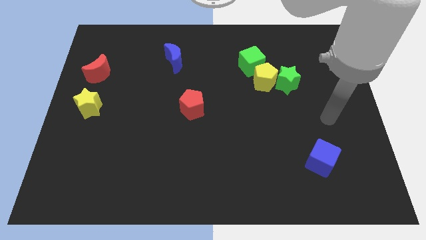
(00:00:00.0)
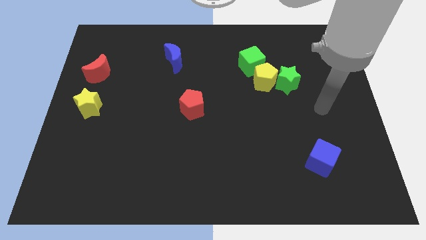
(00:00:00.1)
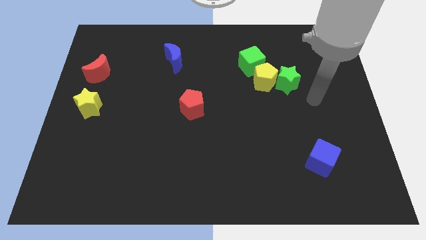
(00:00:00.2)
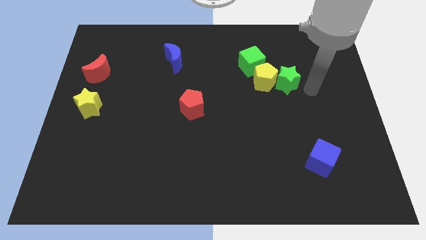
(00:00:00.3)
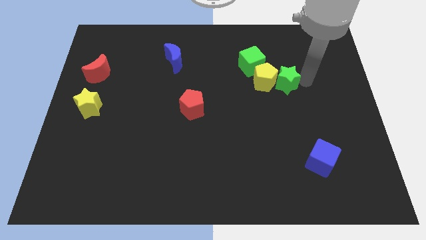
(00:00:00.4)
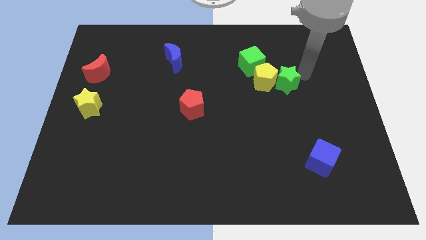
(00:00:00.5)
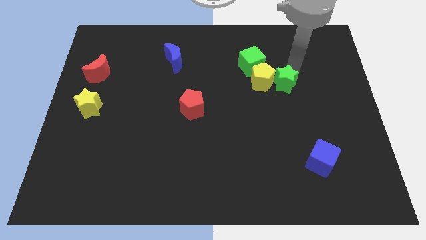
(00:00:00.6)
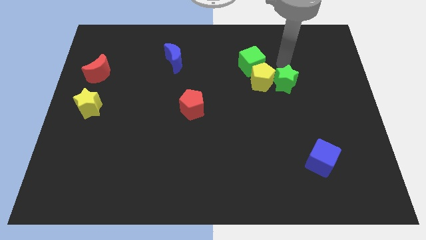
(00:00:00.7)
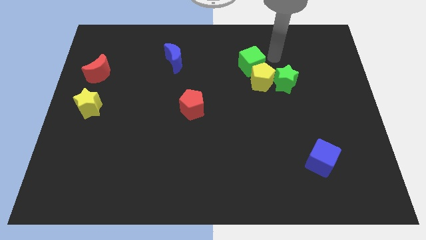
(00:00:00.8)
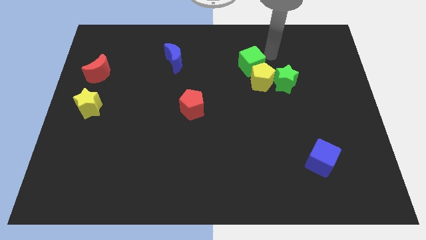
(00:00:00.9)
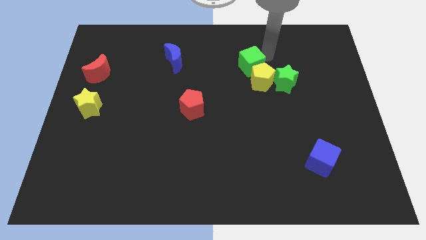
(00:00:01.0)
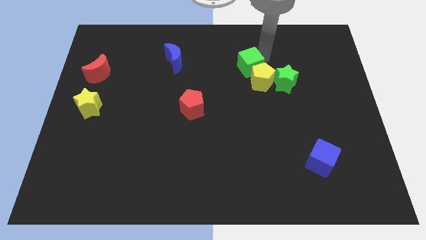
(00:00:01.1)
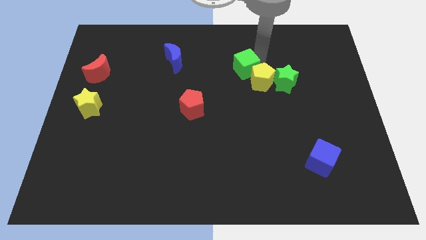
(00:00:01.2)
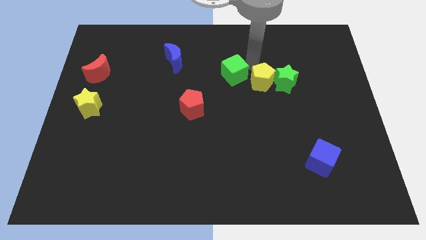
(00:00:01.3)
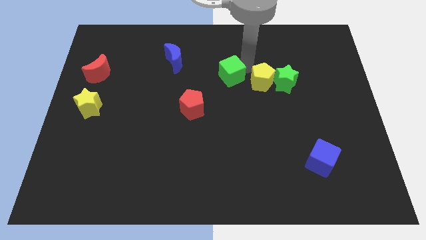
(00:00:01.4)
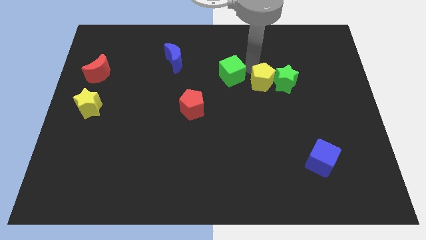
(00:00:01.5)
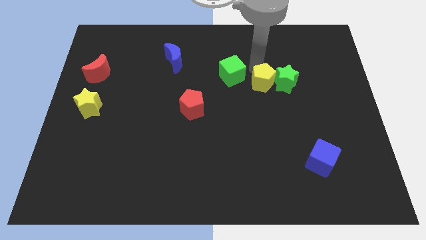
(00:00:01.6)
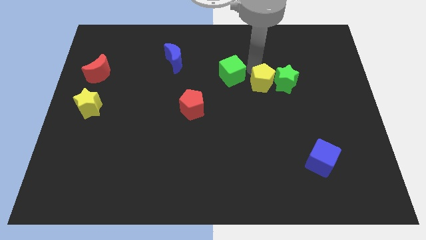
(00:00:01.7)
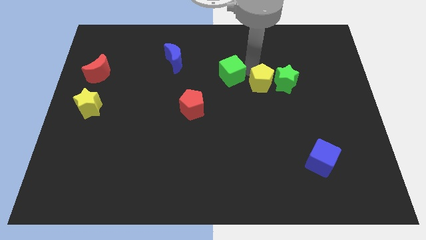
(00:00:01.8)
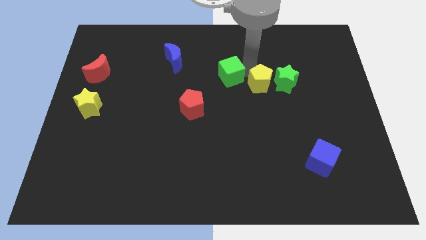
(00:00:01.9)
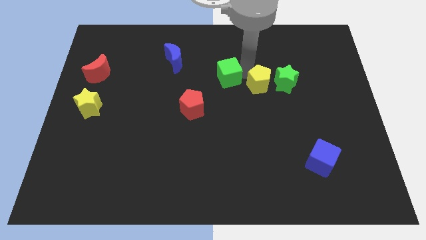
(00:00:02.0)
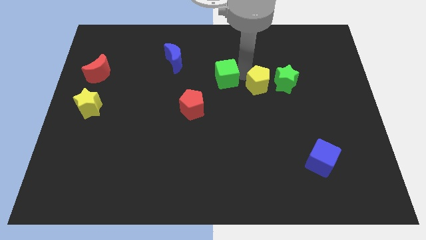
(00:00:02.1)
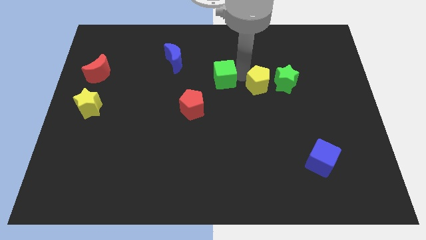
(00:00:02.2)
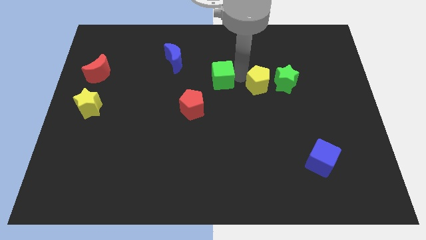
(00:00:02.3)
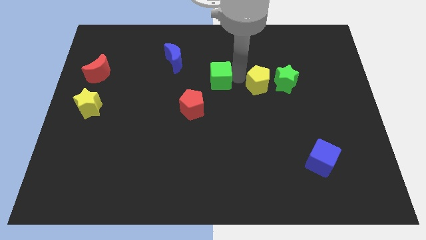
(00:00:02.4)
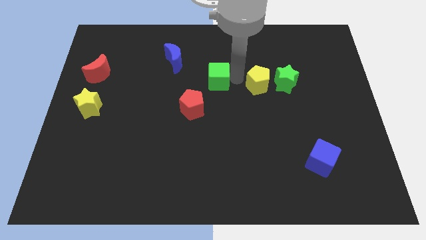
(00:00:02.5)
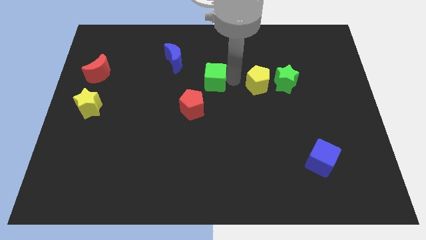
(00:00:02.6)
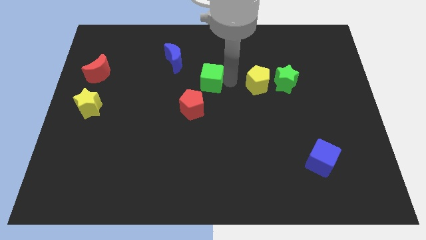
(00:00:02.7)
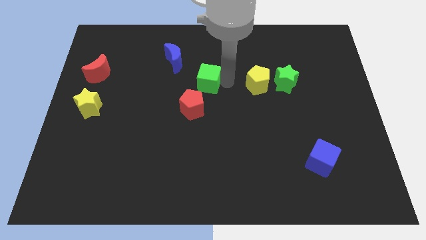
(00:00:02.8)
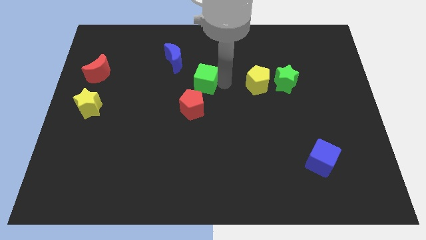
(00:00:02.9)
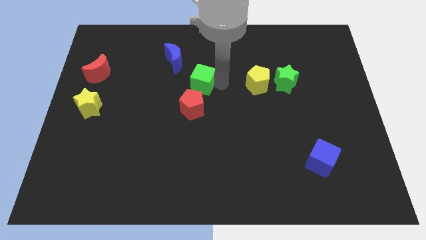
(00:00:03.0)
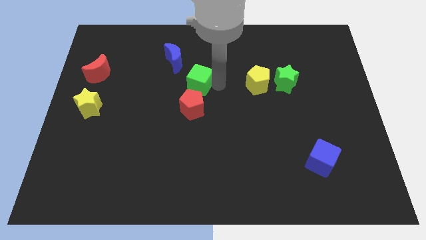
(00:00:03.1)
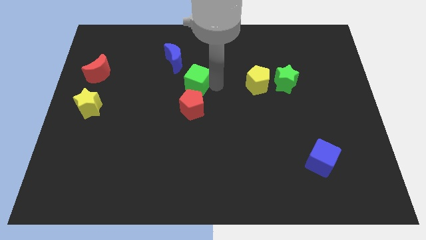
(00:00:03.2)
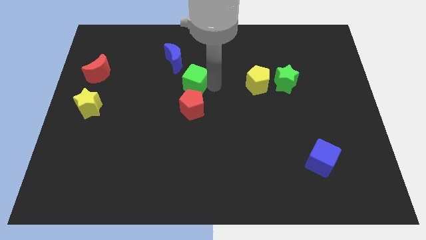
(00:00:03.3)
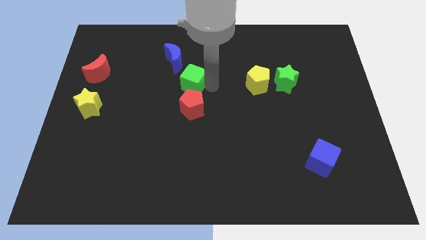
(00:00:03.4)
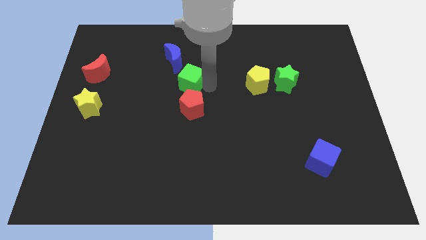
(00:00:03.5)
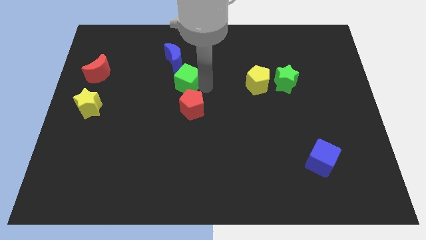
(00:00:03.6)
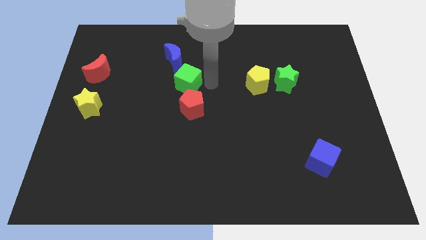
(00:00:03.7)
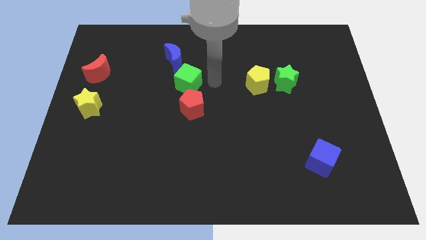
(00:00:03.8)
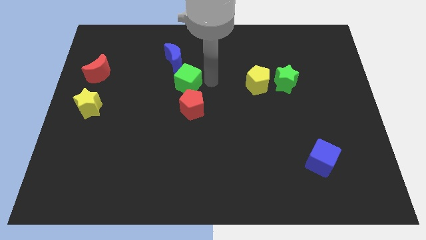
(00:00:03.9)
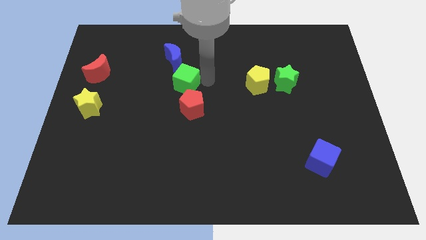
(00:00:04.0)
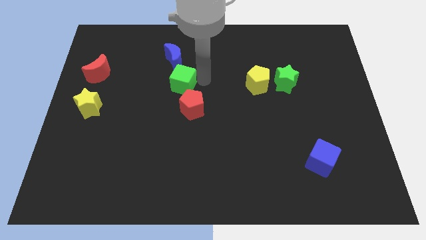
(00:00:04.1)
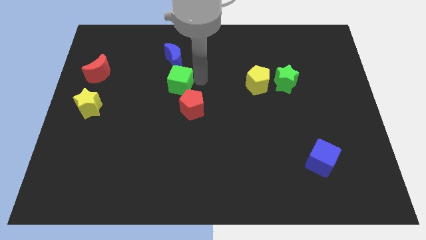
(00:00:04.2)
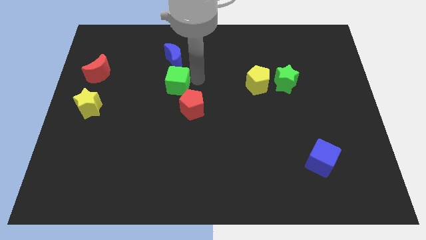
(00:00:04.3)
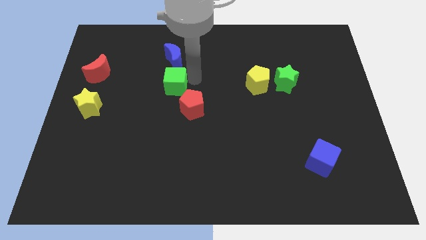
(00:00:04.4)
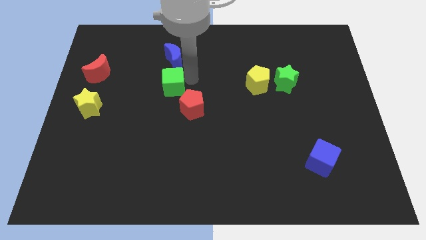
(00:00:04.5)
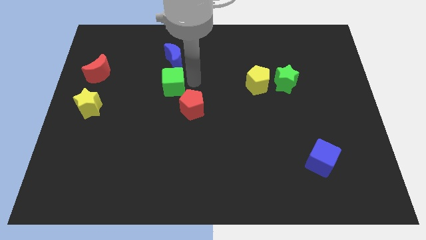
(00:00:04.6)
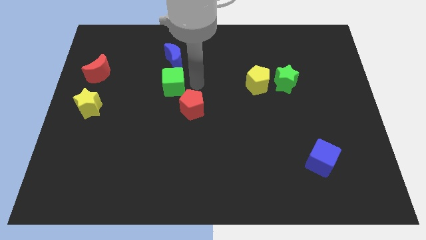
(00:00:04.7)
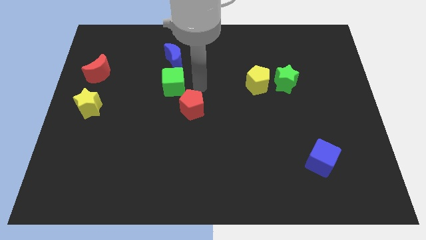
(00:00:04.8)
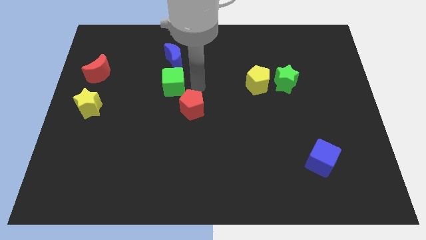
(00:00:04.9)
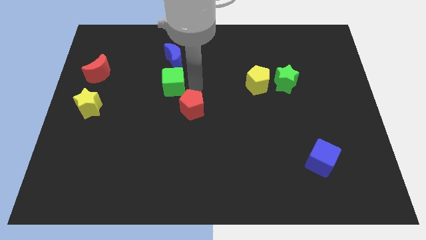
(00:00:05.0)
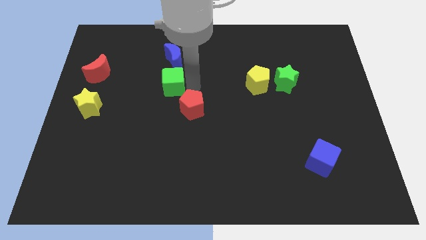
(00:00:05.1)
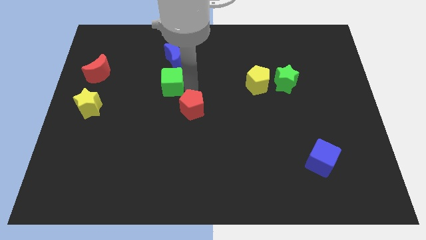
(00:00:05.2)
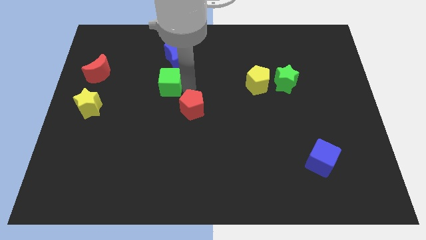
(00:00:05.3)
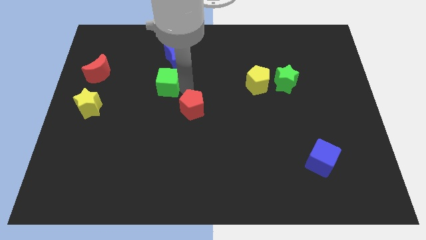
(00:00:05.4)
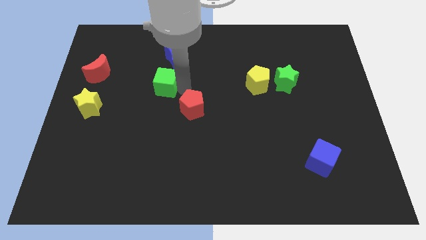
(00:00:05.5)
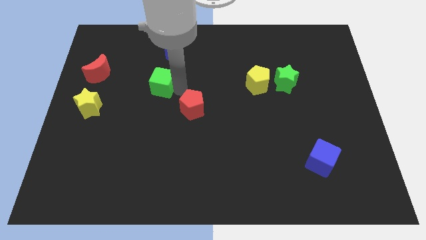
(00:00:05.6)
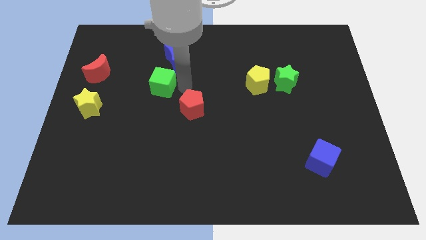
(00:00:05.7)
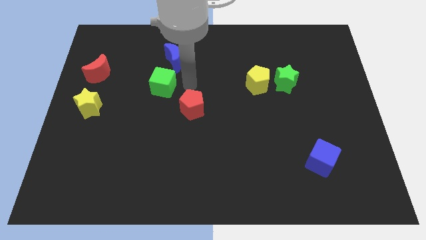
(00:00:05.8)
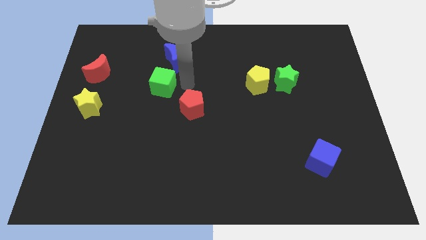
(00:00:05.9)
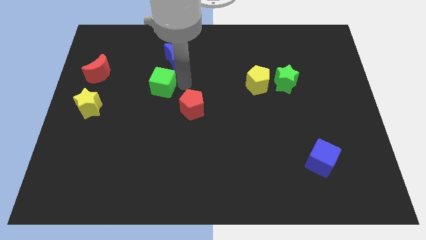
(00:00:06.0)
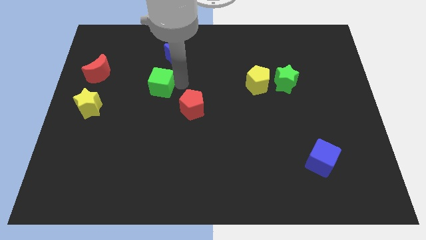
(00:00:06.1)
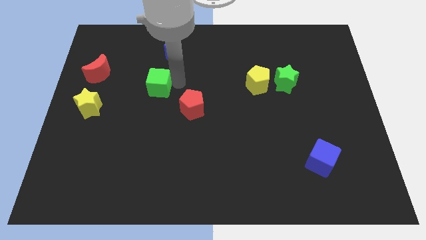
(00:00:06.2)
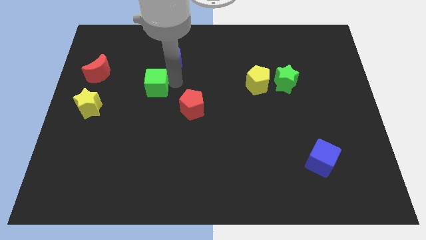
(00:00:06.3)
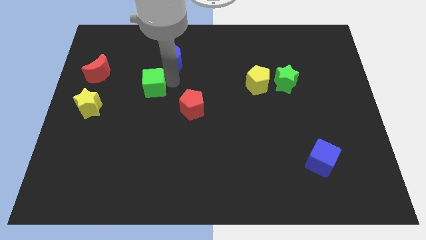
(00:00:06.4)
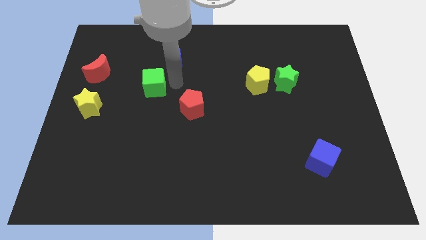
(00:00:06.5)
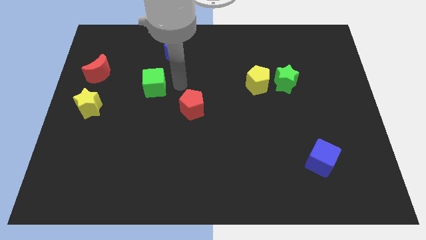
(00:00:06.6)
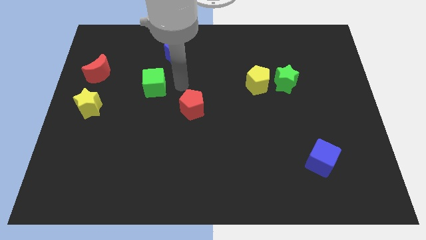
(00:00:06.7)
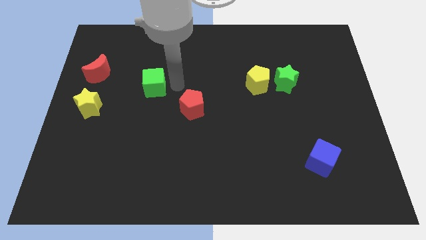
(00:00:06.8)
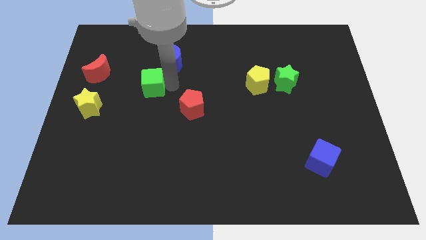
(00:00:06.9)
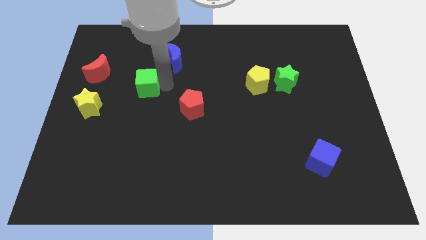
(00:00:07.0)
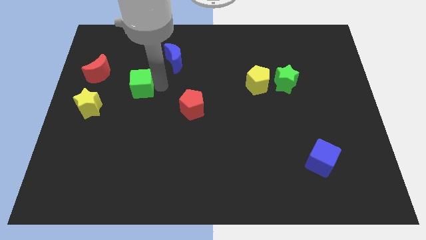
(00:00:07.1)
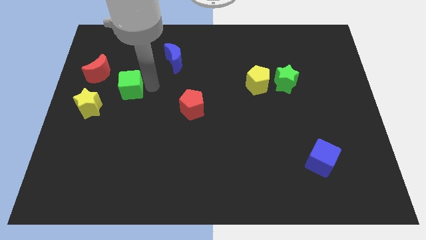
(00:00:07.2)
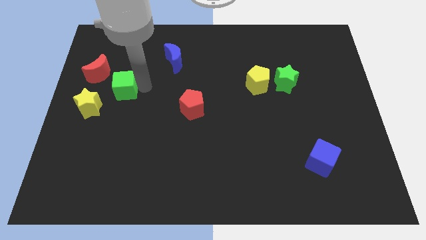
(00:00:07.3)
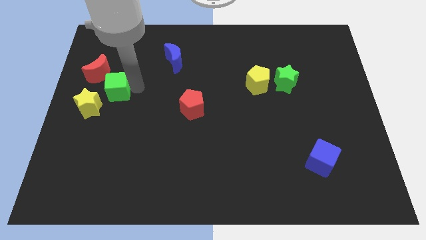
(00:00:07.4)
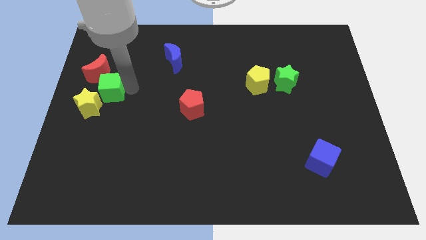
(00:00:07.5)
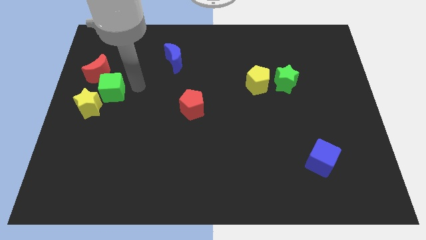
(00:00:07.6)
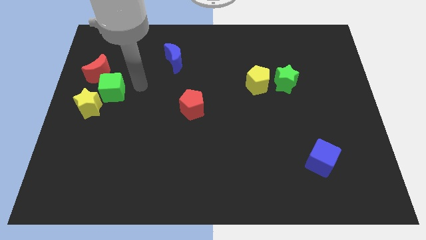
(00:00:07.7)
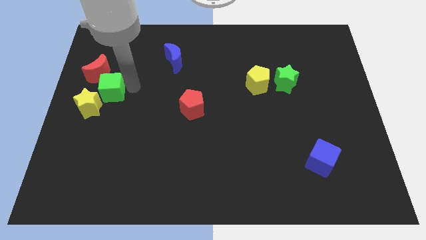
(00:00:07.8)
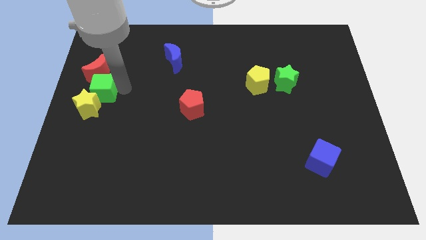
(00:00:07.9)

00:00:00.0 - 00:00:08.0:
put the green cube to the left side of the board
